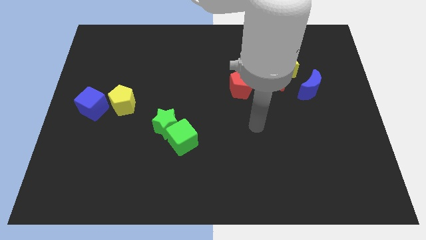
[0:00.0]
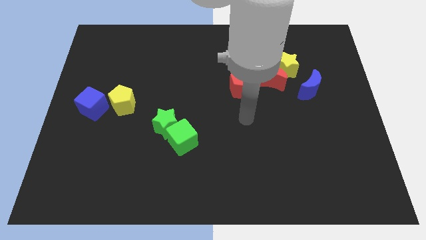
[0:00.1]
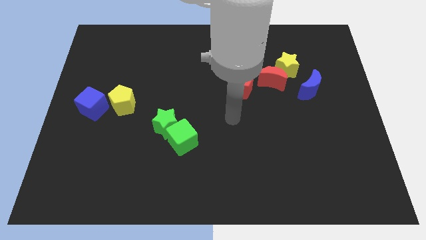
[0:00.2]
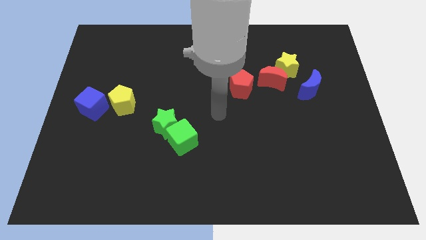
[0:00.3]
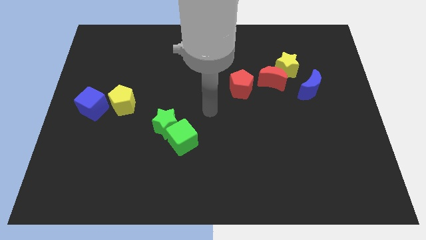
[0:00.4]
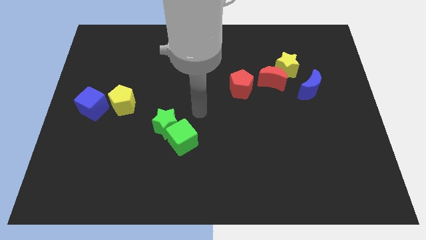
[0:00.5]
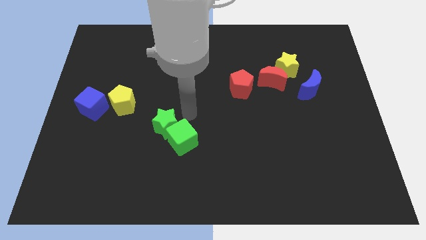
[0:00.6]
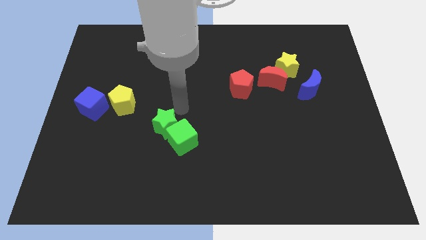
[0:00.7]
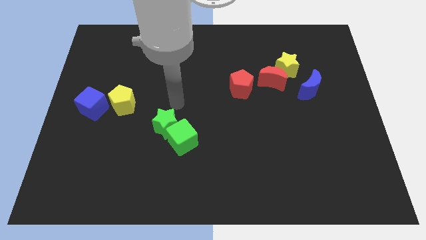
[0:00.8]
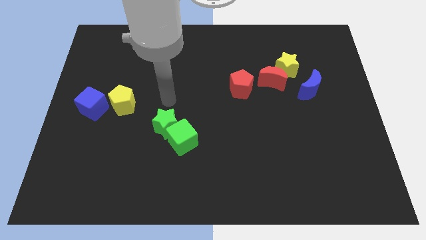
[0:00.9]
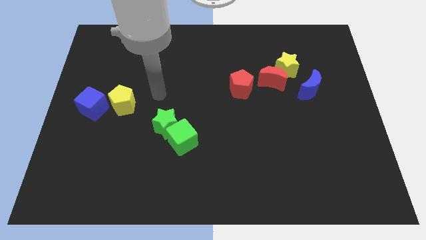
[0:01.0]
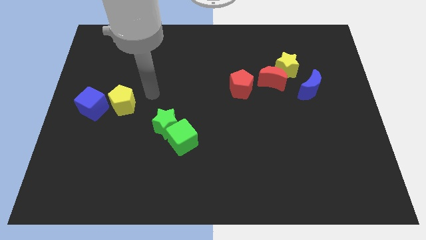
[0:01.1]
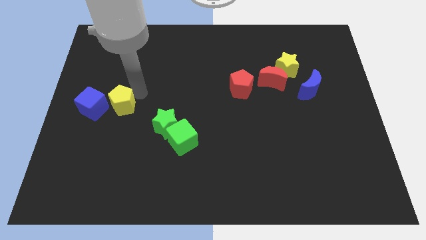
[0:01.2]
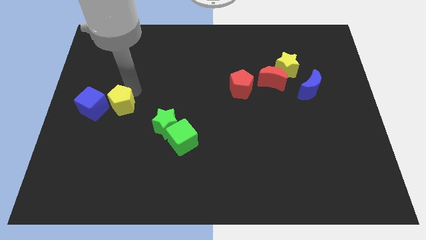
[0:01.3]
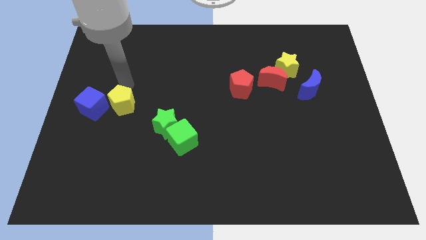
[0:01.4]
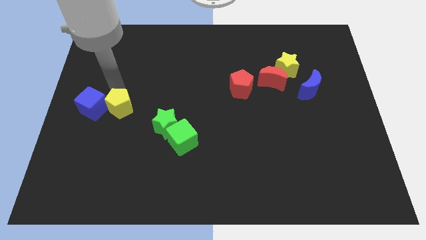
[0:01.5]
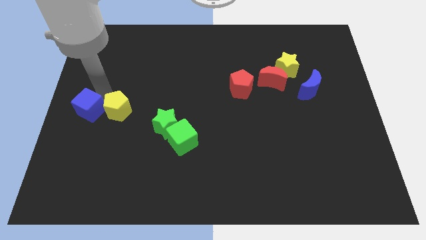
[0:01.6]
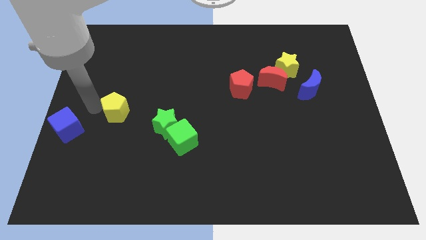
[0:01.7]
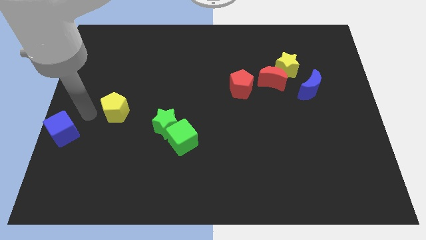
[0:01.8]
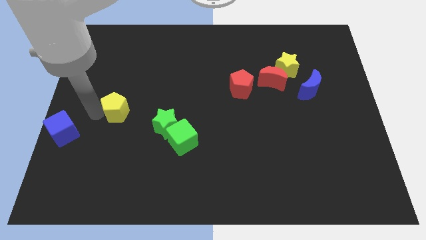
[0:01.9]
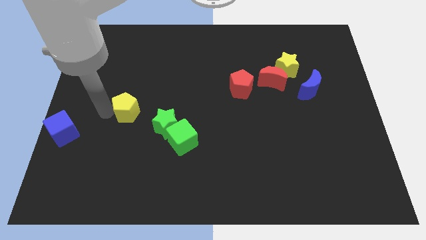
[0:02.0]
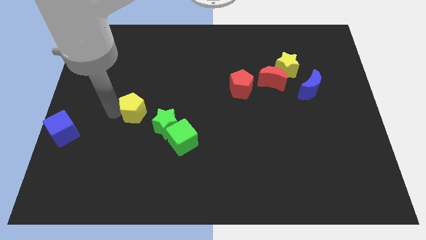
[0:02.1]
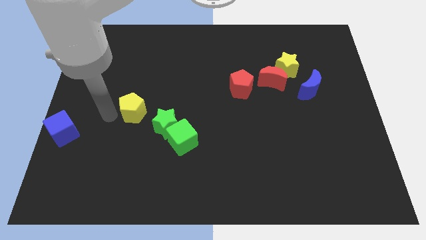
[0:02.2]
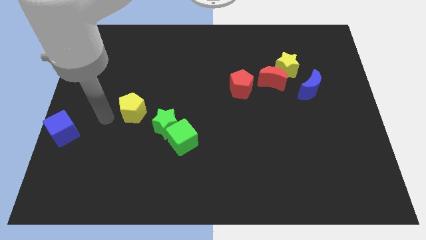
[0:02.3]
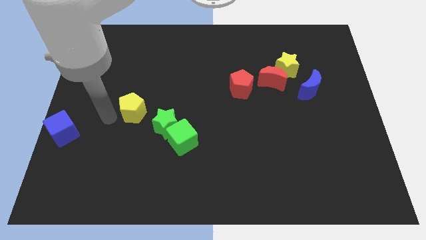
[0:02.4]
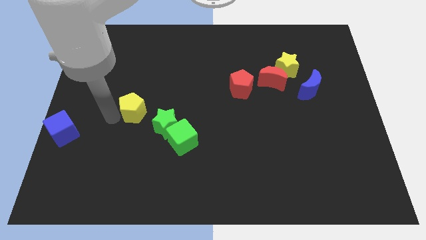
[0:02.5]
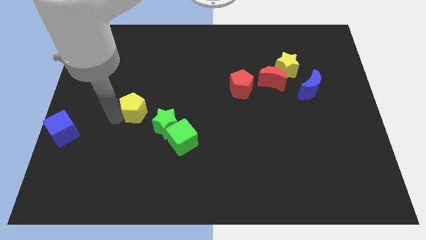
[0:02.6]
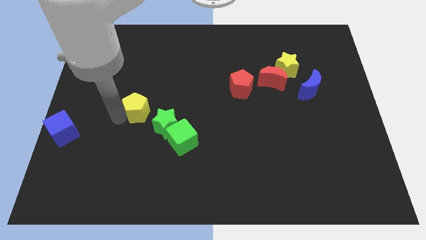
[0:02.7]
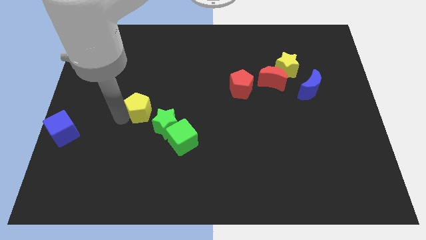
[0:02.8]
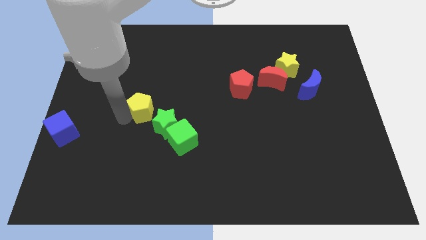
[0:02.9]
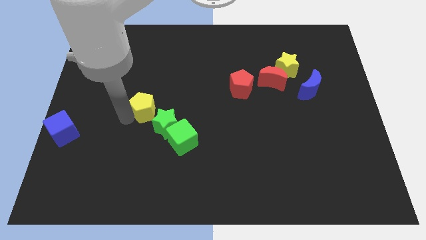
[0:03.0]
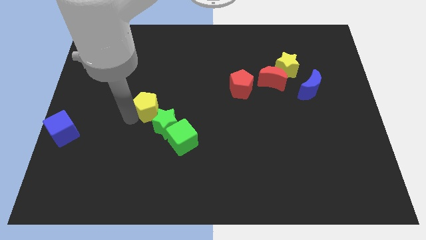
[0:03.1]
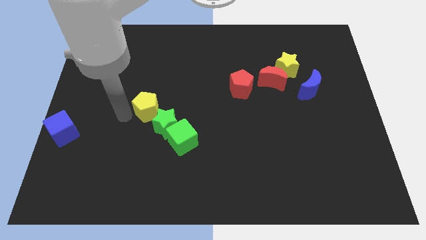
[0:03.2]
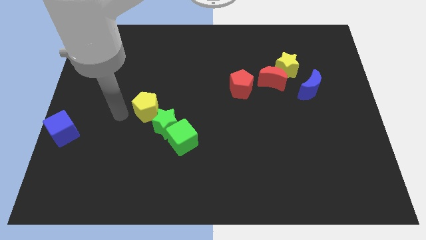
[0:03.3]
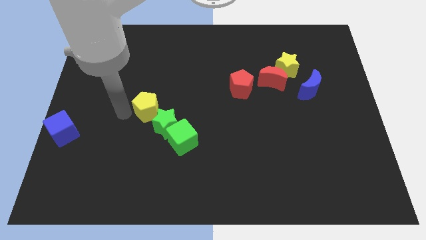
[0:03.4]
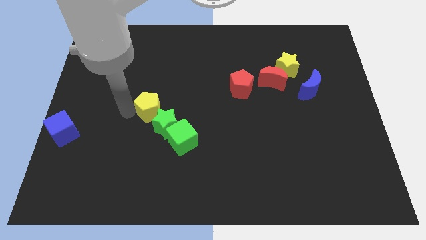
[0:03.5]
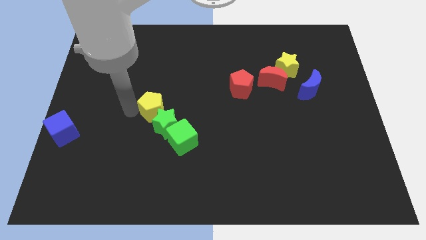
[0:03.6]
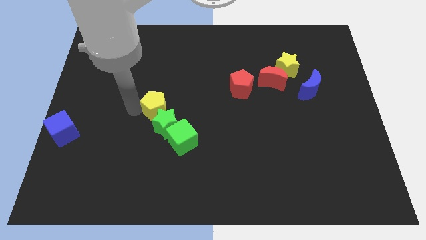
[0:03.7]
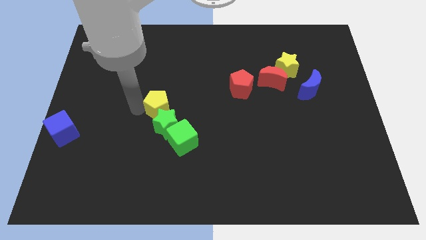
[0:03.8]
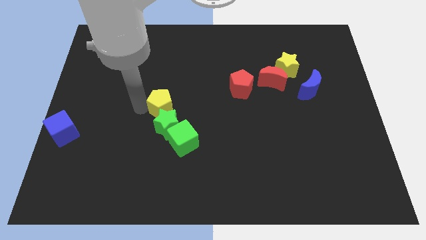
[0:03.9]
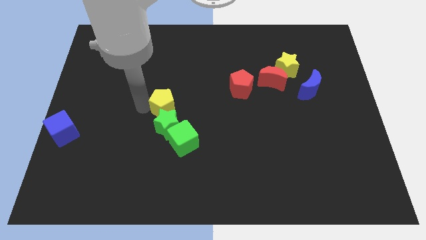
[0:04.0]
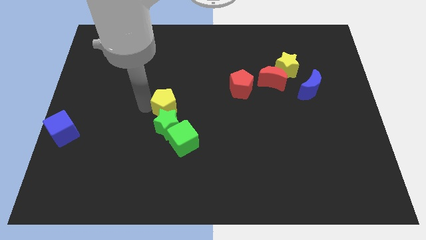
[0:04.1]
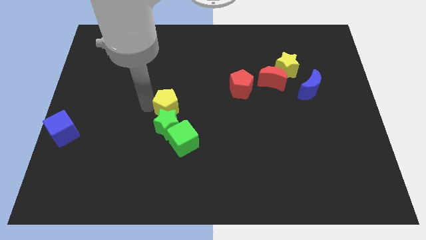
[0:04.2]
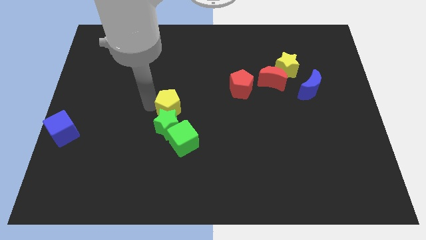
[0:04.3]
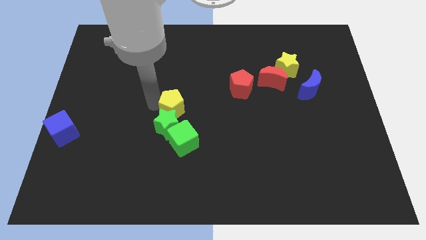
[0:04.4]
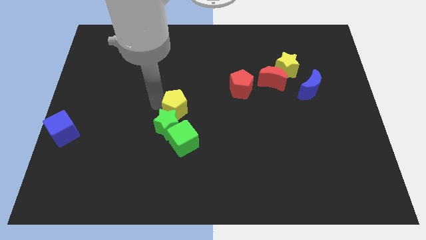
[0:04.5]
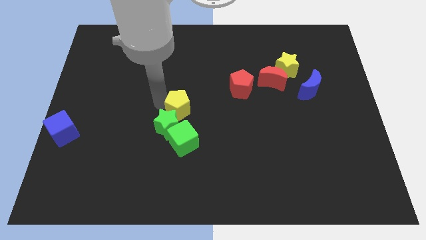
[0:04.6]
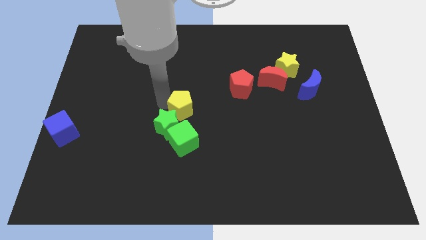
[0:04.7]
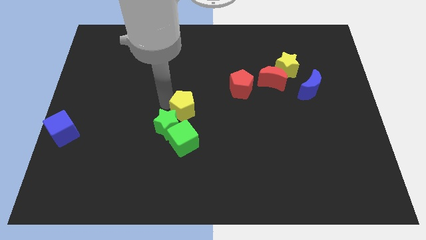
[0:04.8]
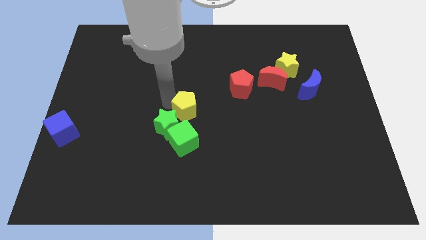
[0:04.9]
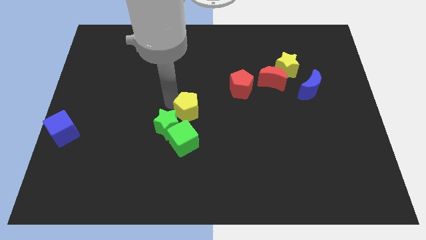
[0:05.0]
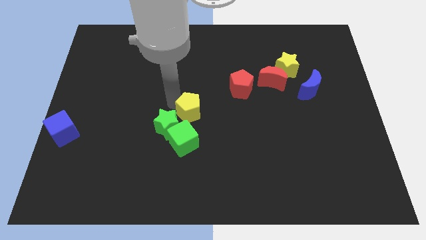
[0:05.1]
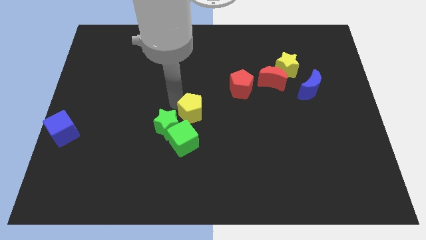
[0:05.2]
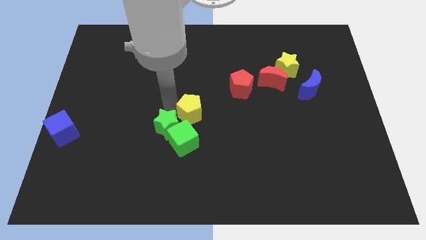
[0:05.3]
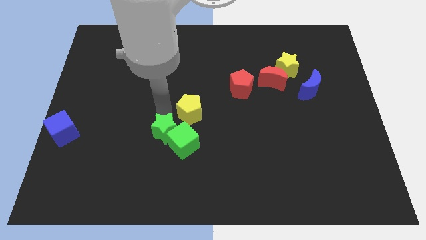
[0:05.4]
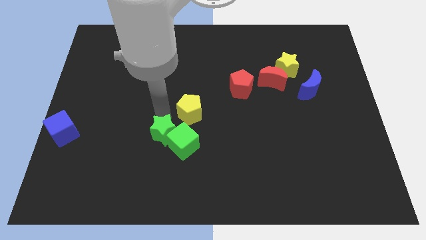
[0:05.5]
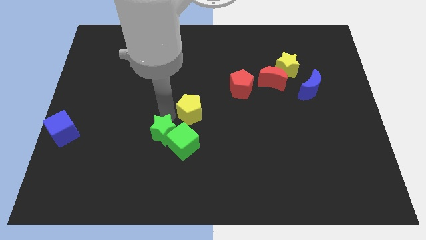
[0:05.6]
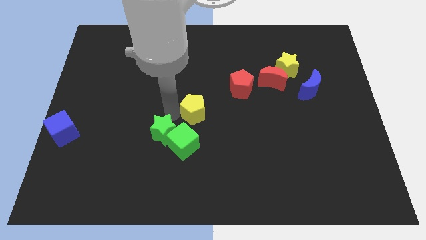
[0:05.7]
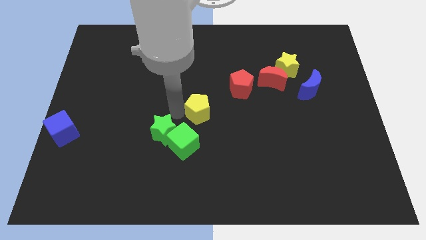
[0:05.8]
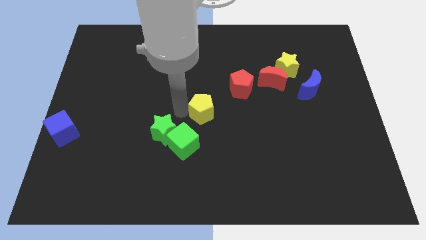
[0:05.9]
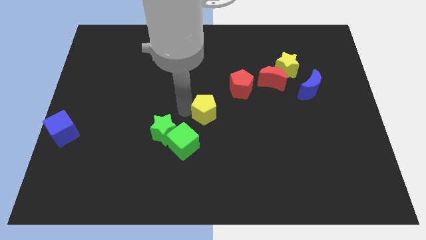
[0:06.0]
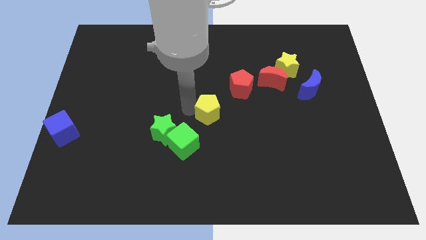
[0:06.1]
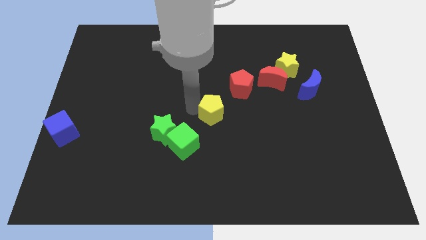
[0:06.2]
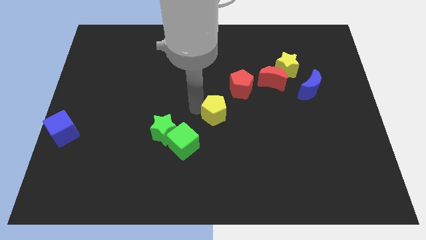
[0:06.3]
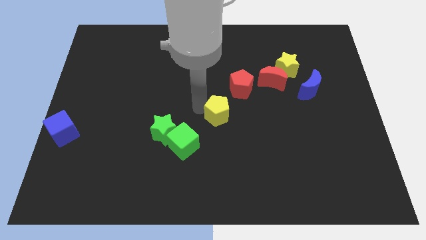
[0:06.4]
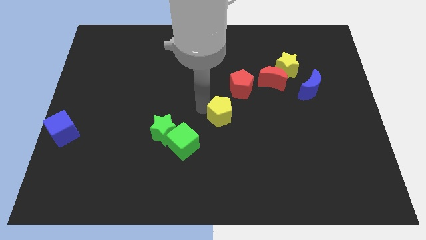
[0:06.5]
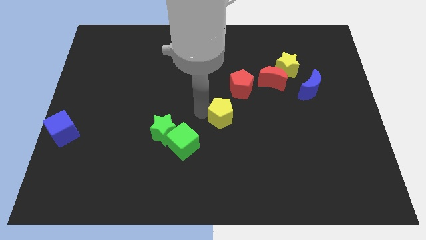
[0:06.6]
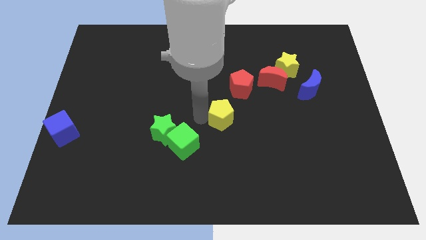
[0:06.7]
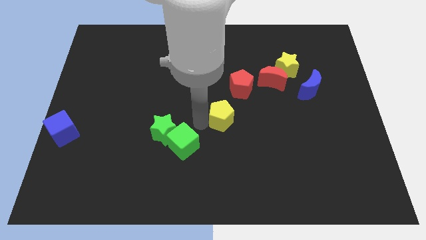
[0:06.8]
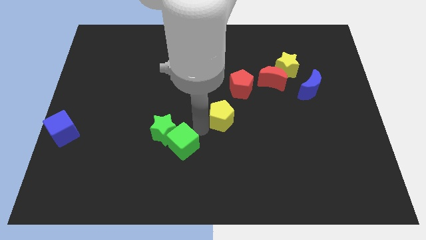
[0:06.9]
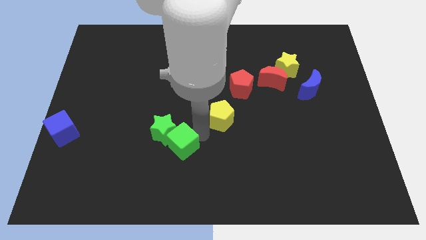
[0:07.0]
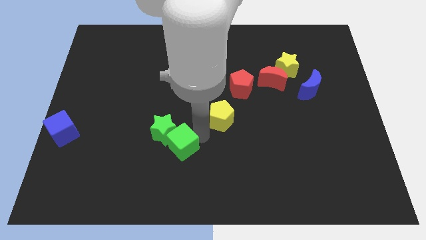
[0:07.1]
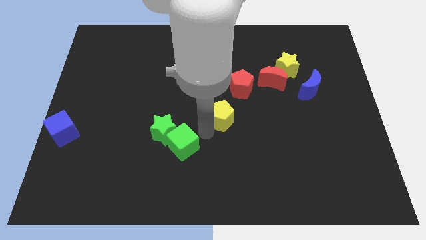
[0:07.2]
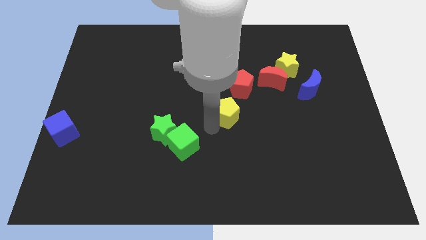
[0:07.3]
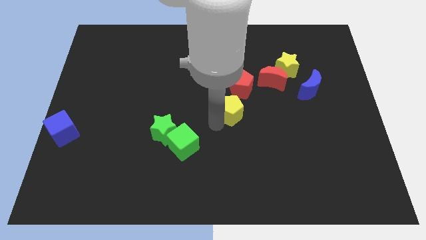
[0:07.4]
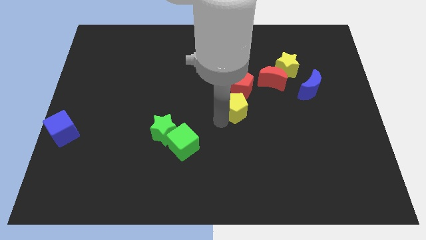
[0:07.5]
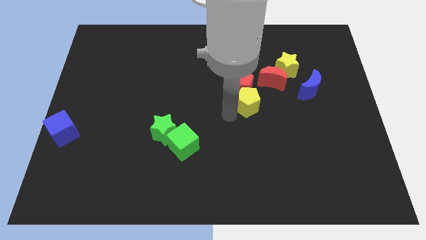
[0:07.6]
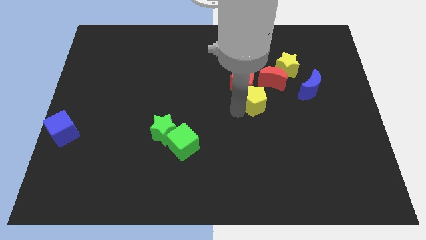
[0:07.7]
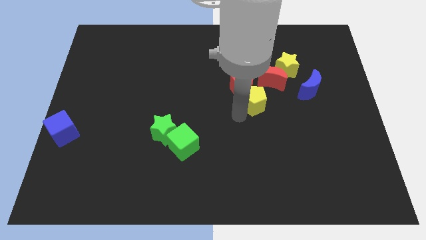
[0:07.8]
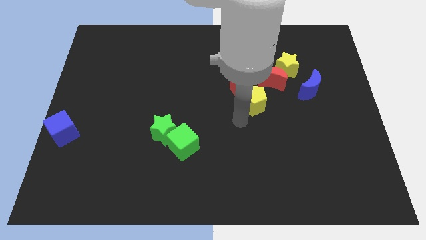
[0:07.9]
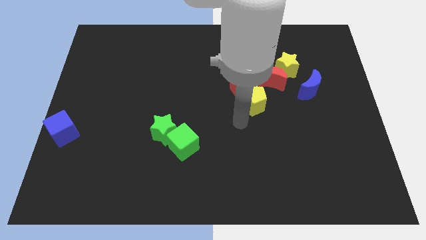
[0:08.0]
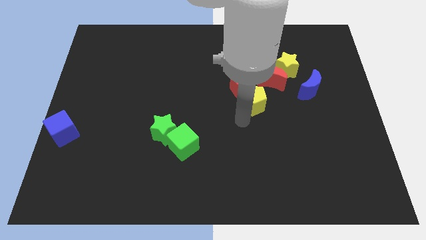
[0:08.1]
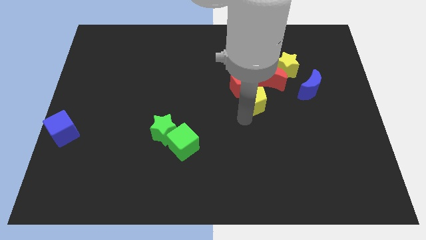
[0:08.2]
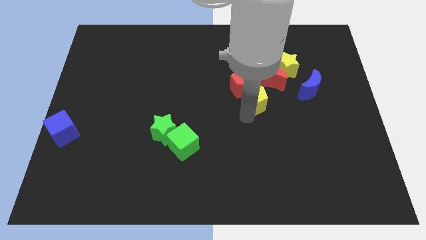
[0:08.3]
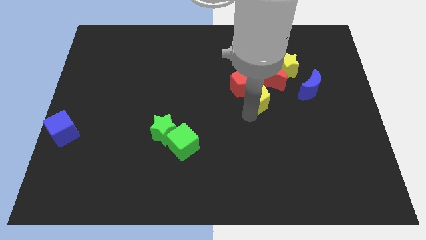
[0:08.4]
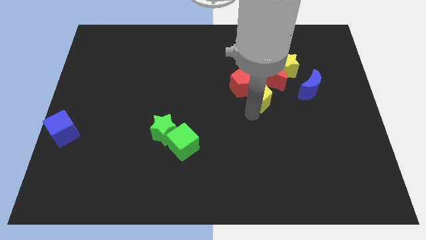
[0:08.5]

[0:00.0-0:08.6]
put the yellow pentagon to the bottom left side of the yellow star
